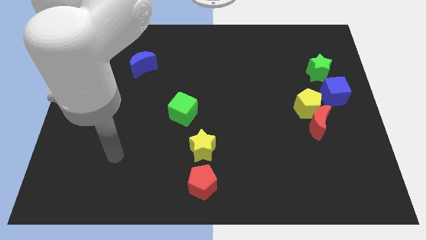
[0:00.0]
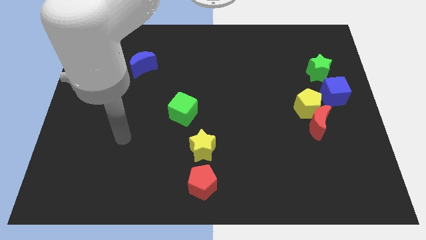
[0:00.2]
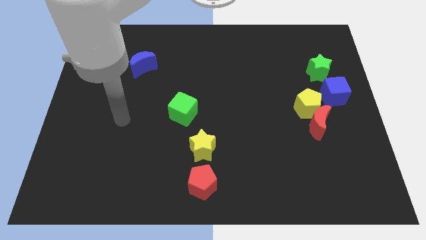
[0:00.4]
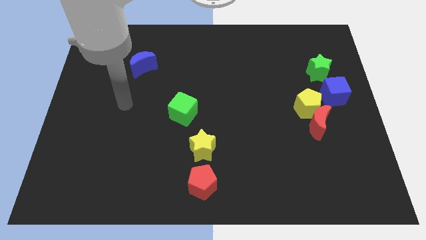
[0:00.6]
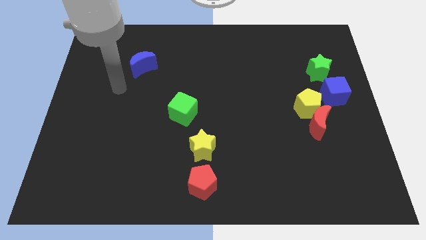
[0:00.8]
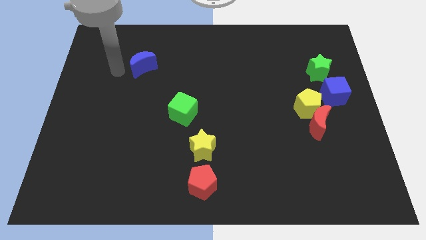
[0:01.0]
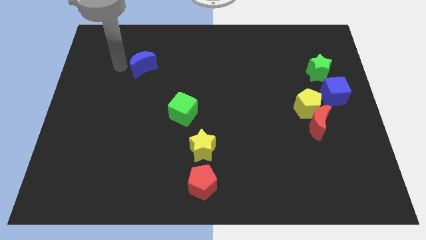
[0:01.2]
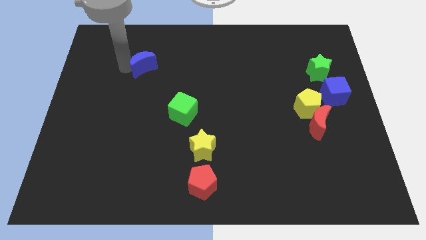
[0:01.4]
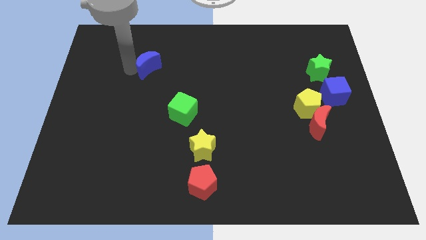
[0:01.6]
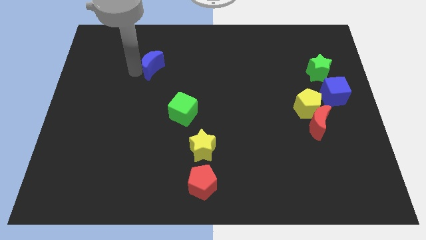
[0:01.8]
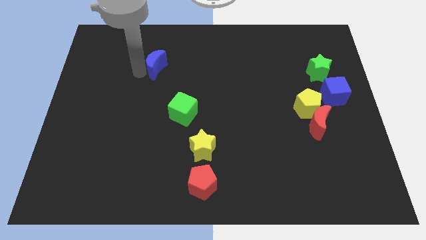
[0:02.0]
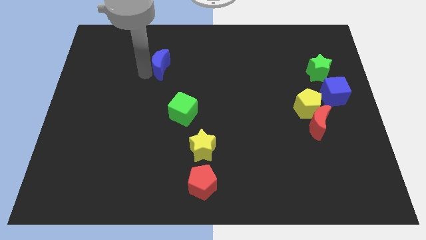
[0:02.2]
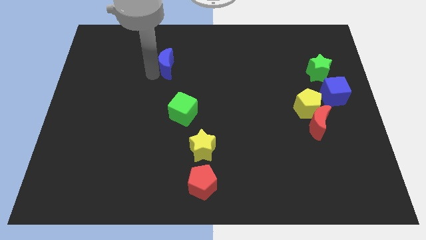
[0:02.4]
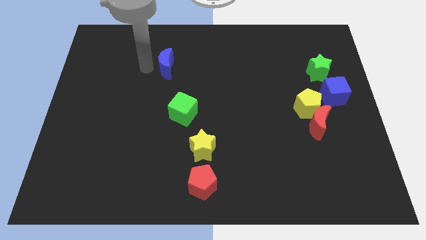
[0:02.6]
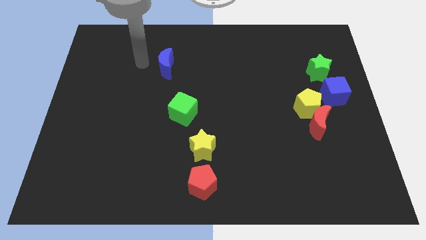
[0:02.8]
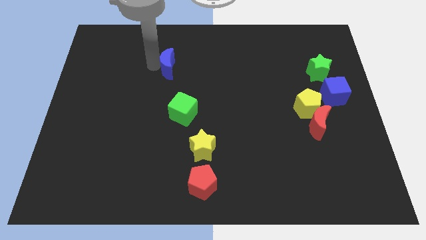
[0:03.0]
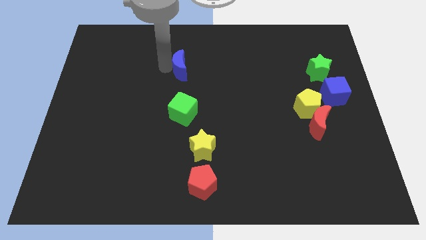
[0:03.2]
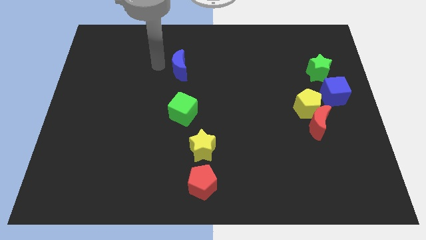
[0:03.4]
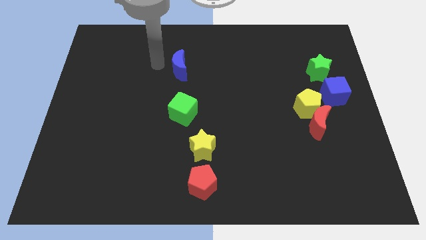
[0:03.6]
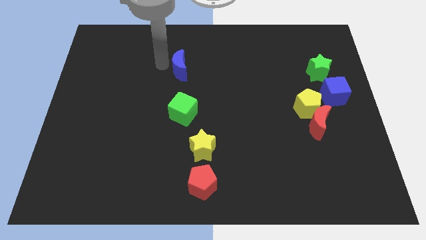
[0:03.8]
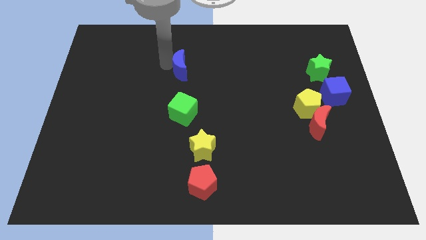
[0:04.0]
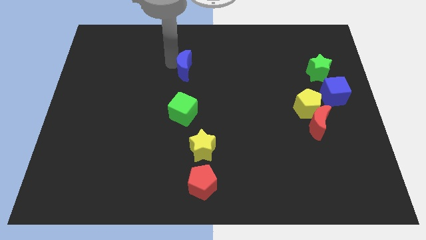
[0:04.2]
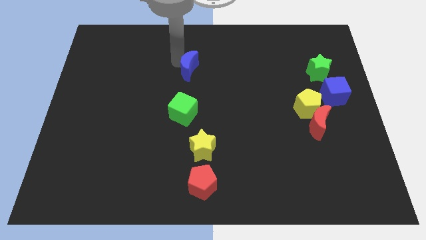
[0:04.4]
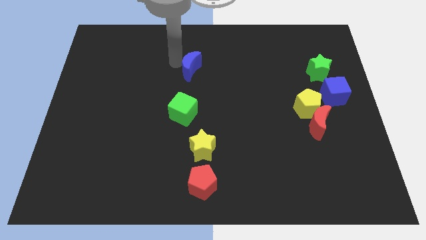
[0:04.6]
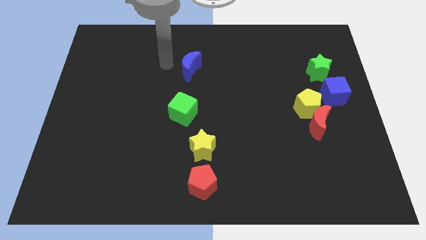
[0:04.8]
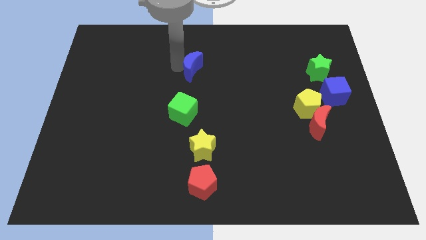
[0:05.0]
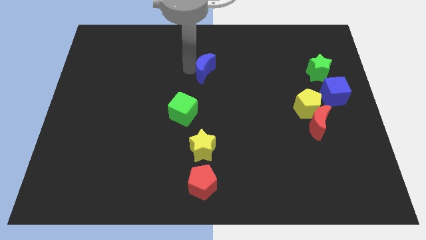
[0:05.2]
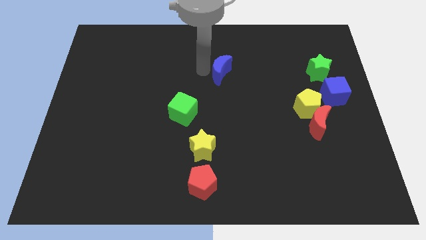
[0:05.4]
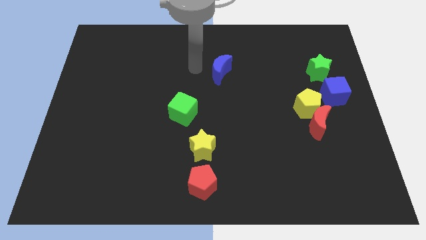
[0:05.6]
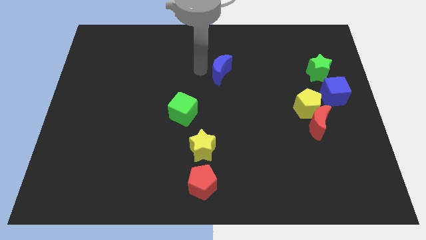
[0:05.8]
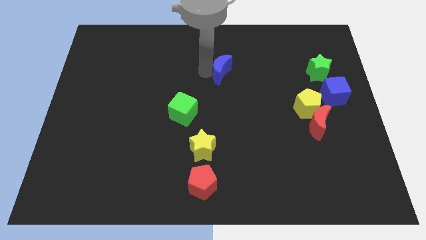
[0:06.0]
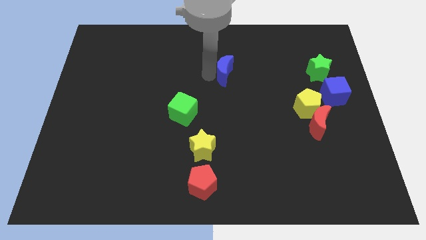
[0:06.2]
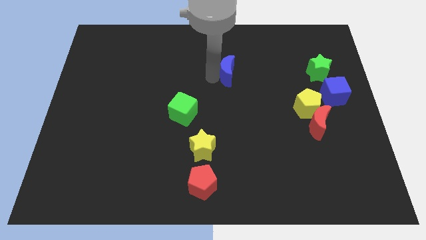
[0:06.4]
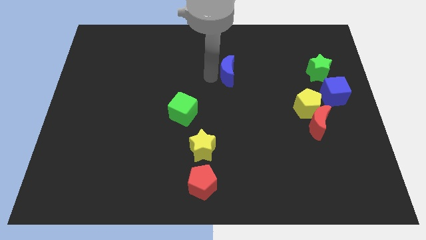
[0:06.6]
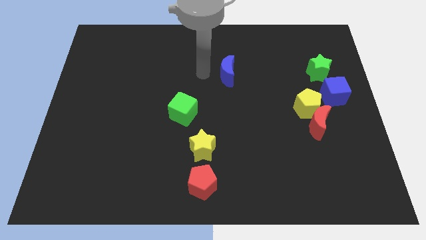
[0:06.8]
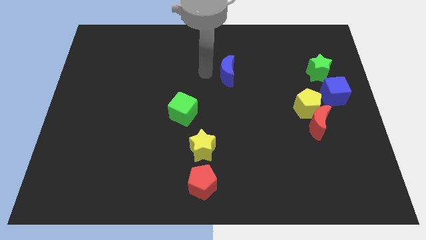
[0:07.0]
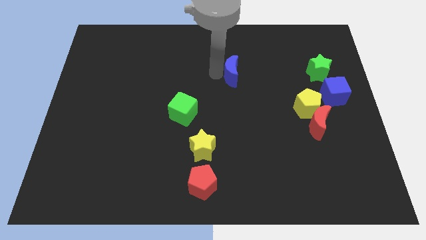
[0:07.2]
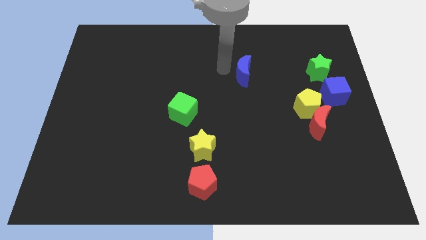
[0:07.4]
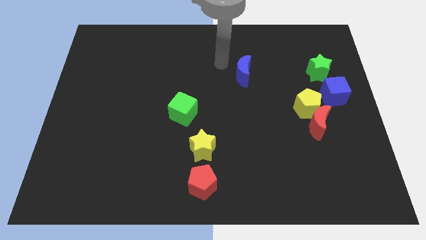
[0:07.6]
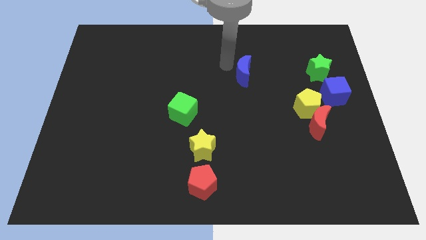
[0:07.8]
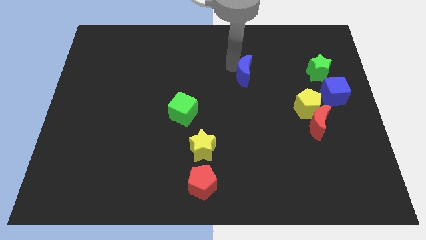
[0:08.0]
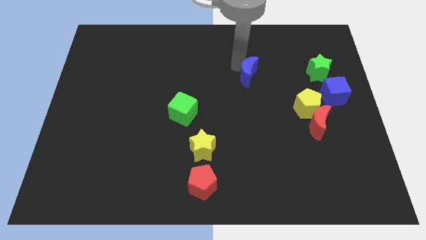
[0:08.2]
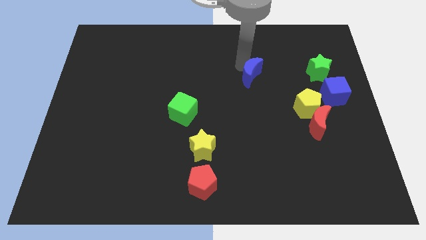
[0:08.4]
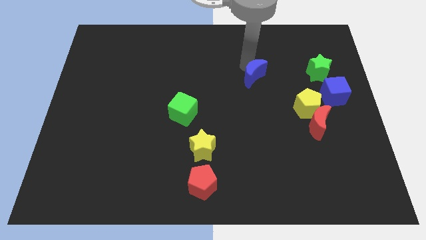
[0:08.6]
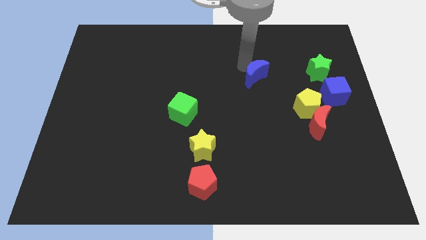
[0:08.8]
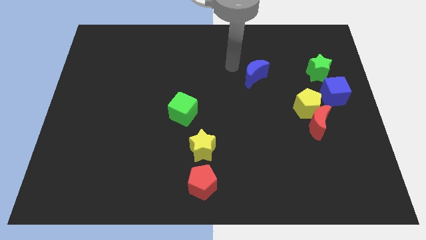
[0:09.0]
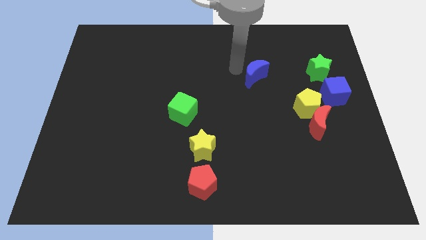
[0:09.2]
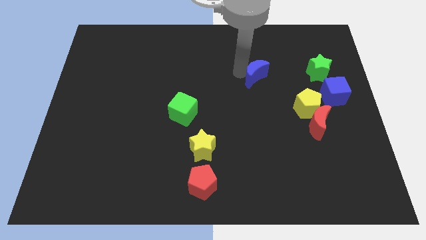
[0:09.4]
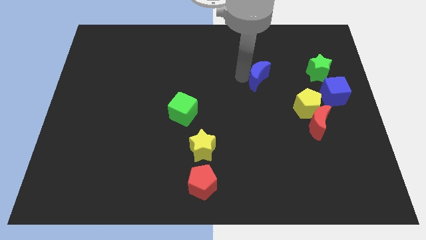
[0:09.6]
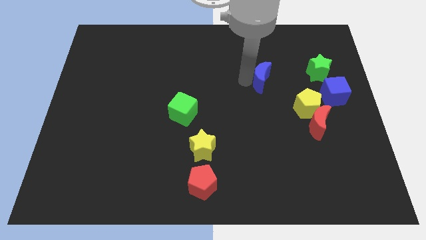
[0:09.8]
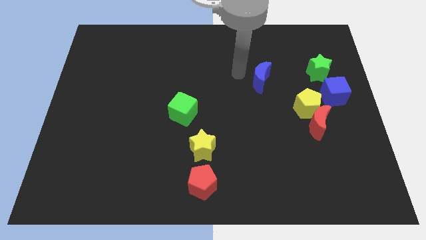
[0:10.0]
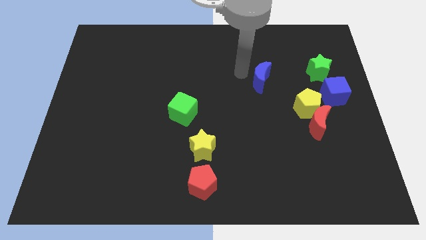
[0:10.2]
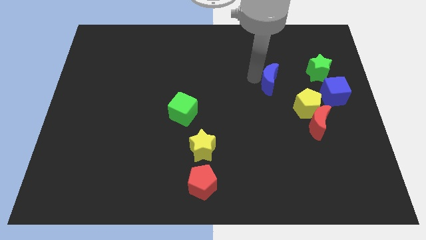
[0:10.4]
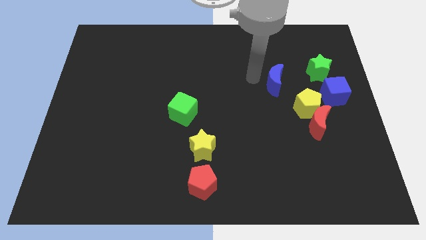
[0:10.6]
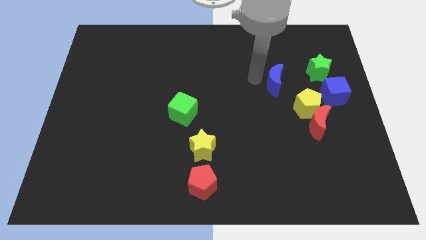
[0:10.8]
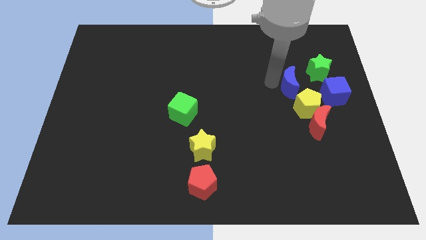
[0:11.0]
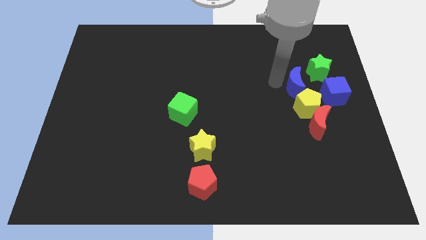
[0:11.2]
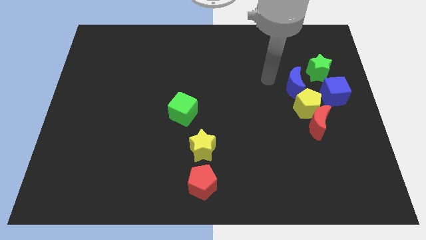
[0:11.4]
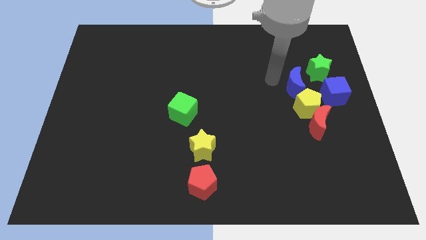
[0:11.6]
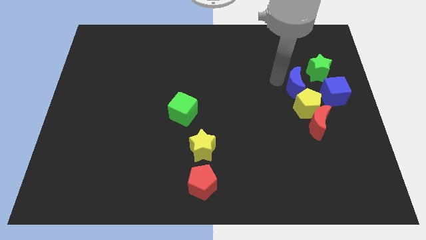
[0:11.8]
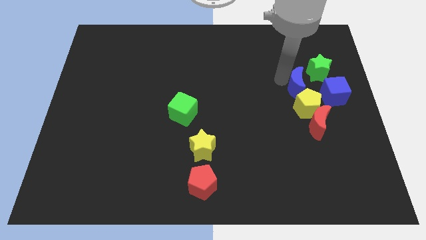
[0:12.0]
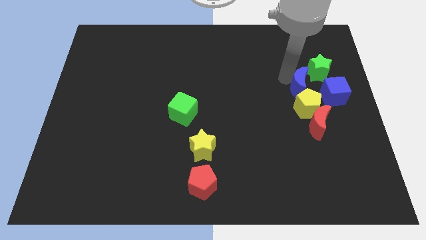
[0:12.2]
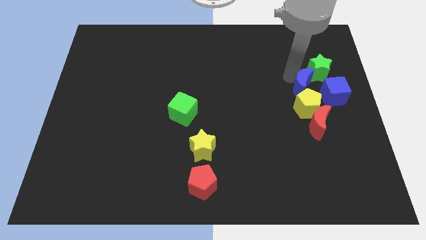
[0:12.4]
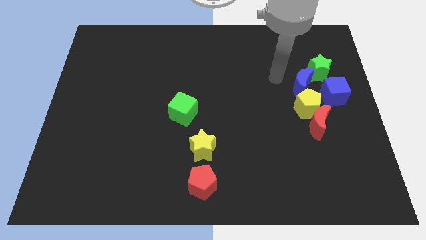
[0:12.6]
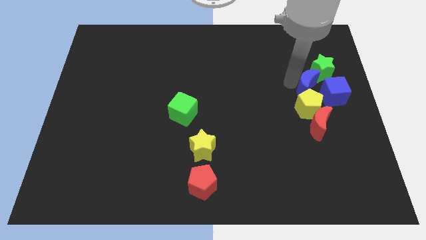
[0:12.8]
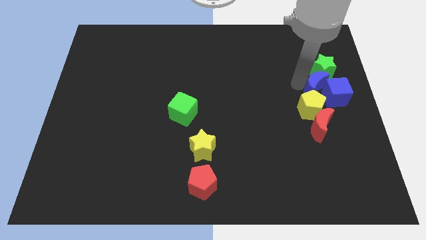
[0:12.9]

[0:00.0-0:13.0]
put the blue moon to the blue cube

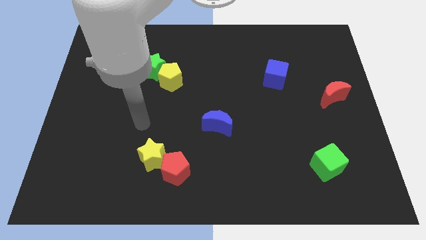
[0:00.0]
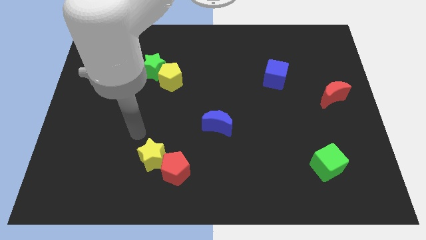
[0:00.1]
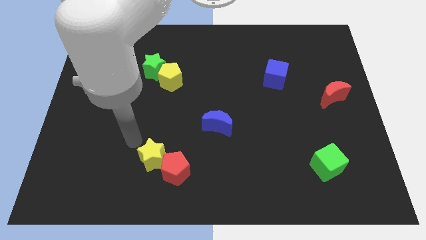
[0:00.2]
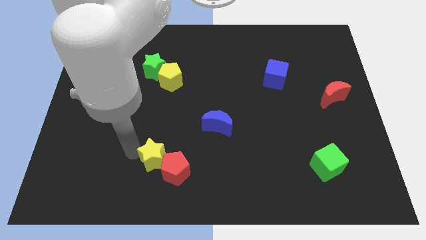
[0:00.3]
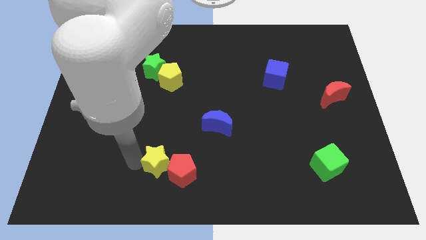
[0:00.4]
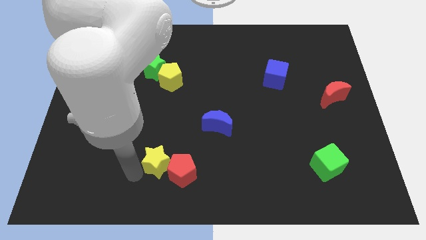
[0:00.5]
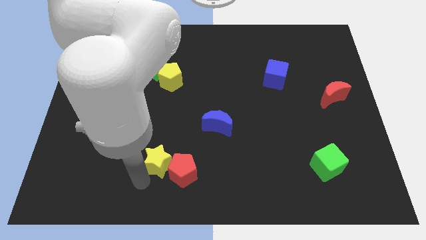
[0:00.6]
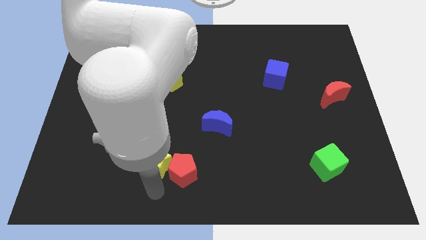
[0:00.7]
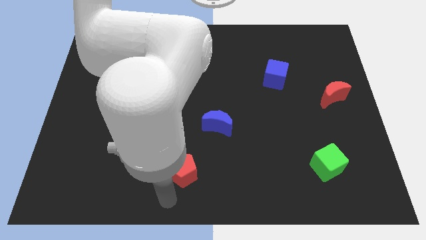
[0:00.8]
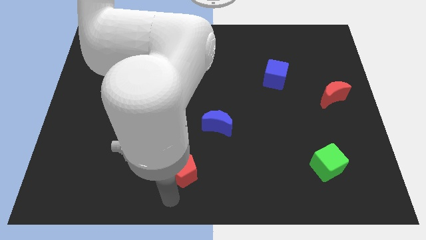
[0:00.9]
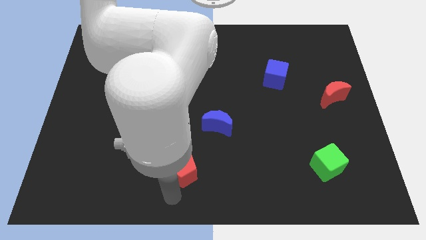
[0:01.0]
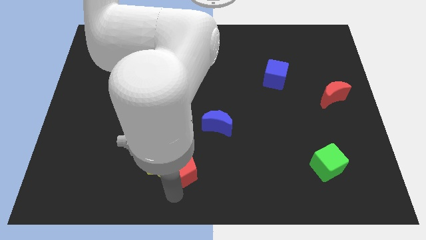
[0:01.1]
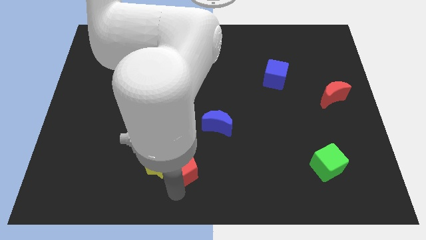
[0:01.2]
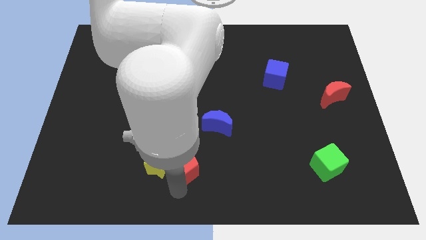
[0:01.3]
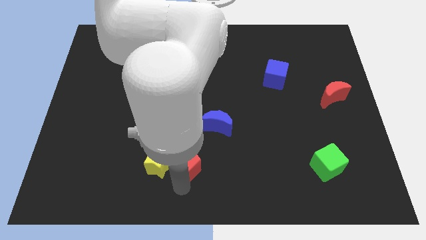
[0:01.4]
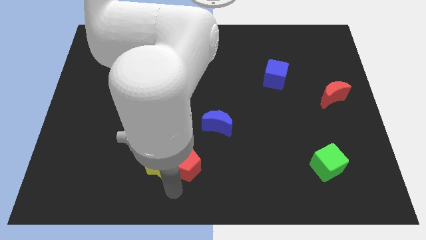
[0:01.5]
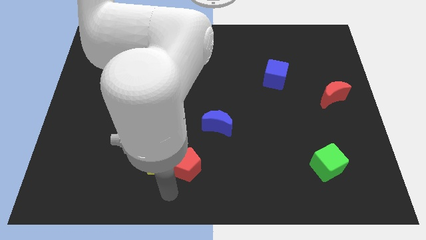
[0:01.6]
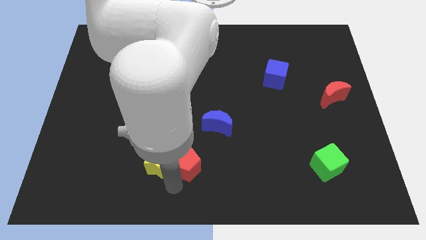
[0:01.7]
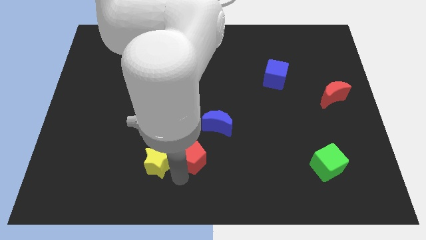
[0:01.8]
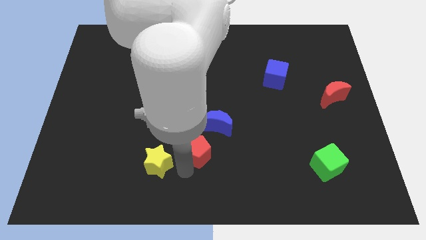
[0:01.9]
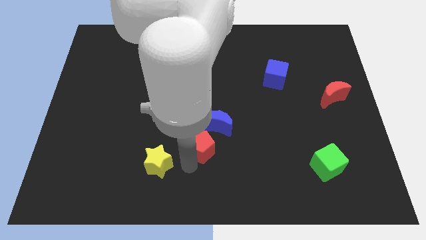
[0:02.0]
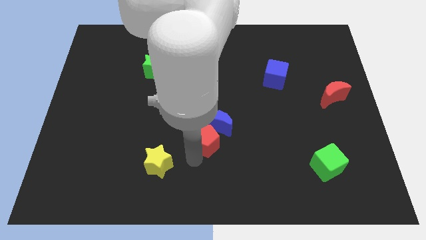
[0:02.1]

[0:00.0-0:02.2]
put the red pentagon close to the blue moon
